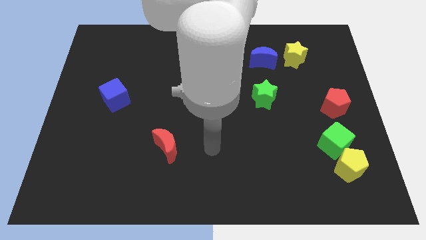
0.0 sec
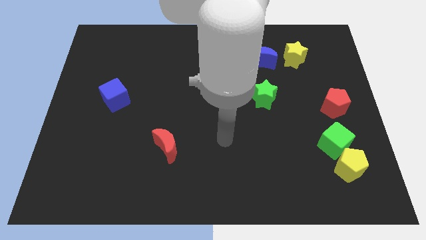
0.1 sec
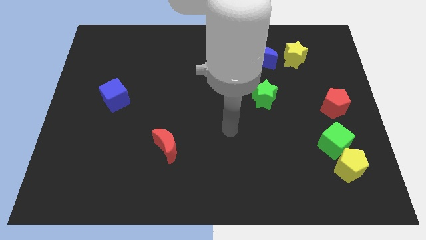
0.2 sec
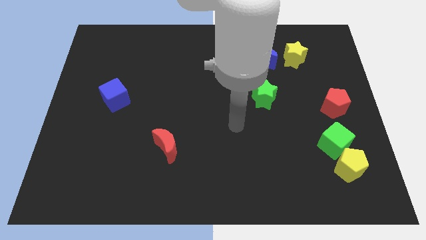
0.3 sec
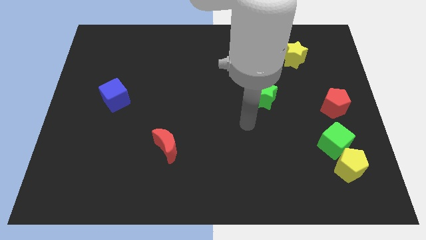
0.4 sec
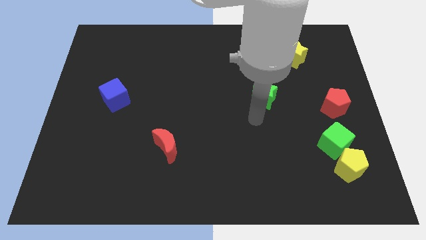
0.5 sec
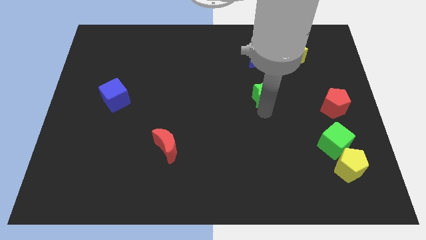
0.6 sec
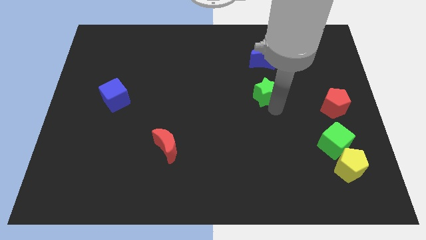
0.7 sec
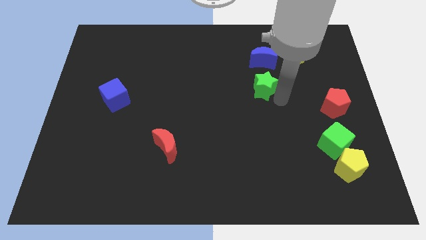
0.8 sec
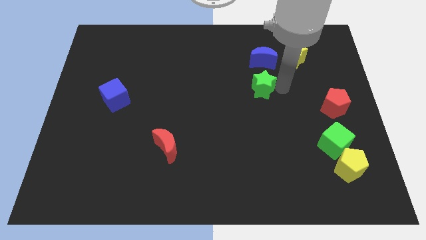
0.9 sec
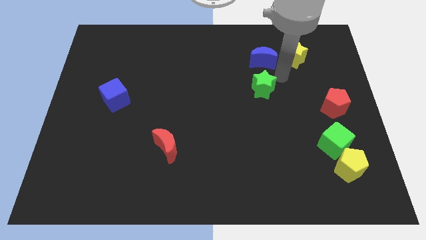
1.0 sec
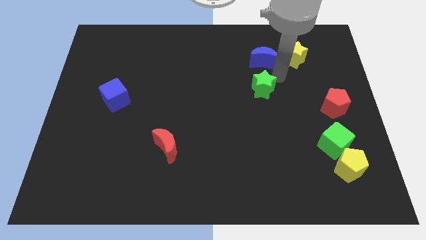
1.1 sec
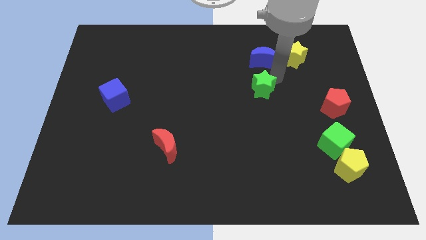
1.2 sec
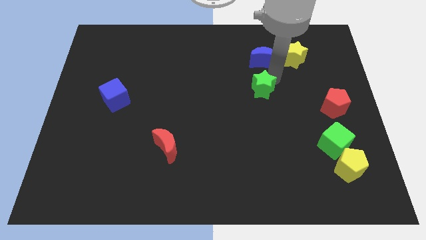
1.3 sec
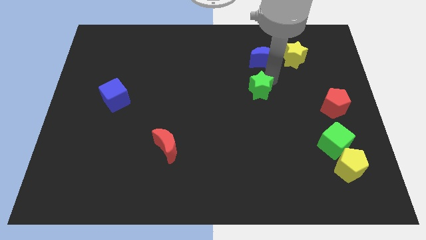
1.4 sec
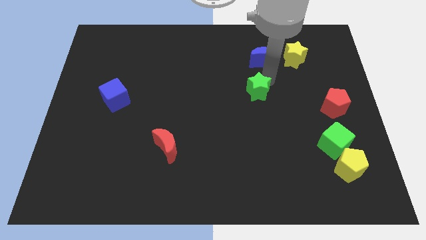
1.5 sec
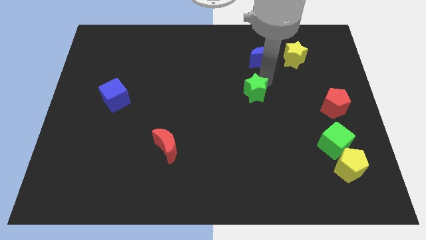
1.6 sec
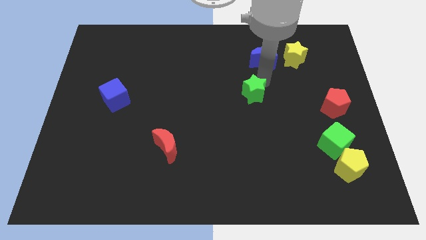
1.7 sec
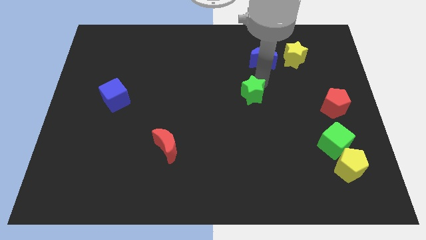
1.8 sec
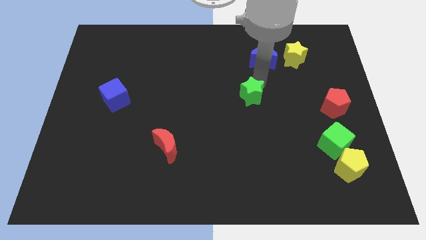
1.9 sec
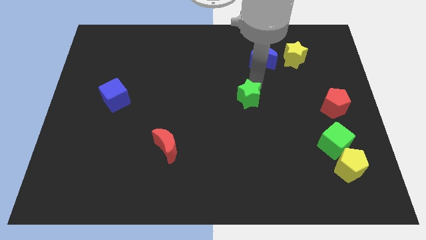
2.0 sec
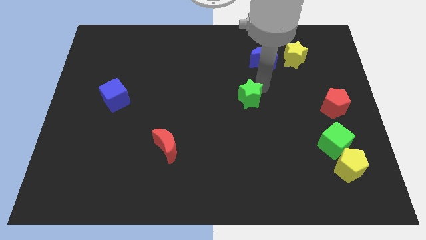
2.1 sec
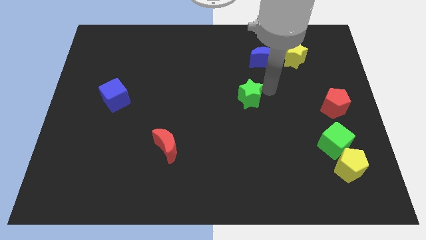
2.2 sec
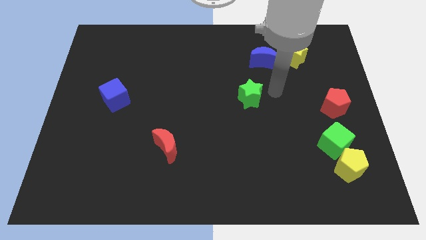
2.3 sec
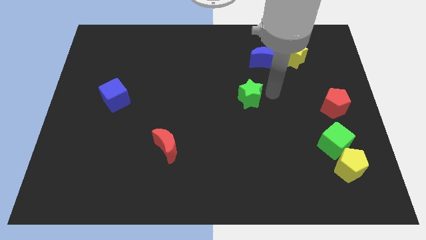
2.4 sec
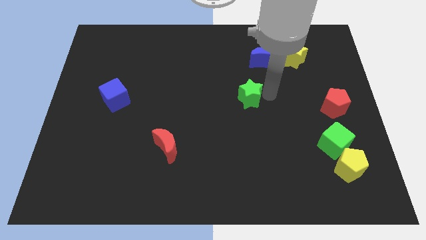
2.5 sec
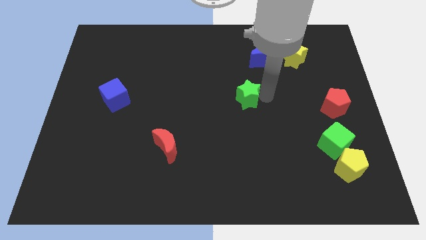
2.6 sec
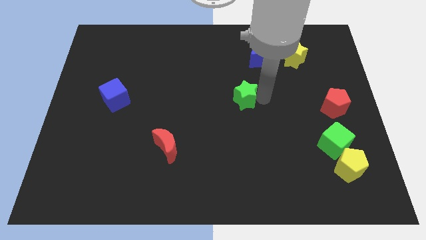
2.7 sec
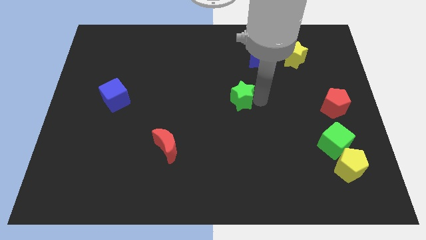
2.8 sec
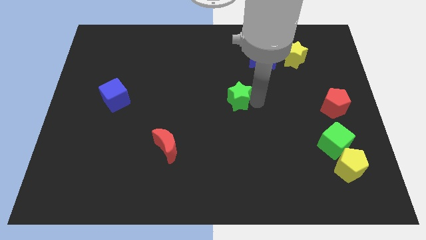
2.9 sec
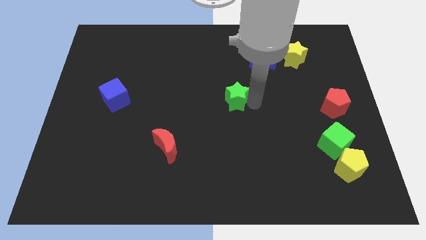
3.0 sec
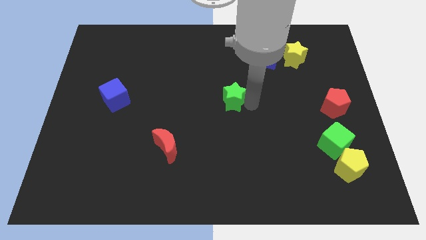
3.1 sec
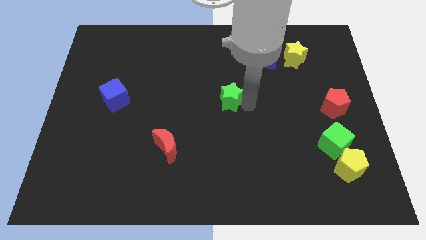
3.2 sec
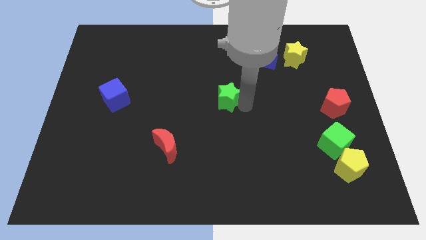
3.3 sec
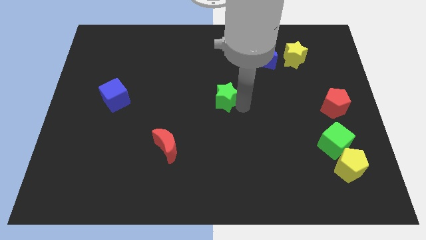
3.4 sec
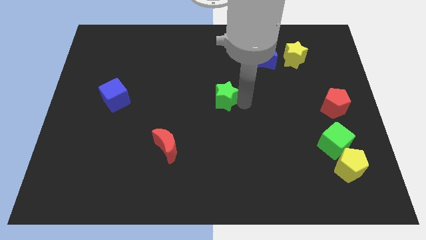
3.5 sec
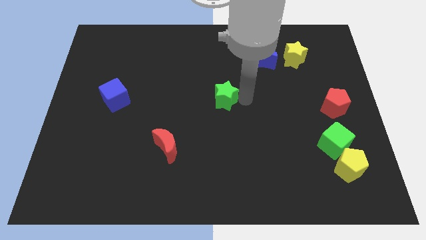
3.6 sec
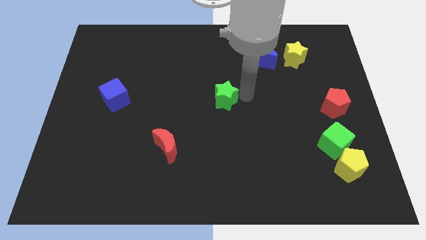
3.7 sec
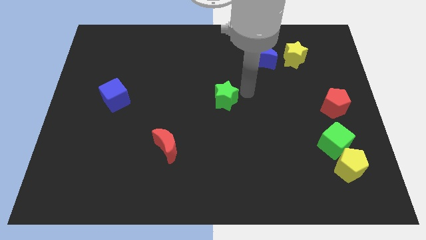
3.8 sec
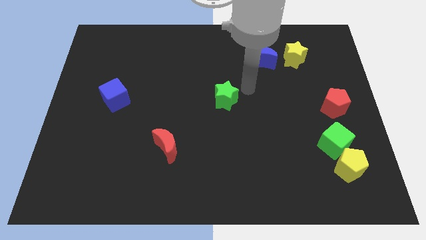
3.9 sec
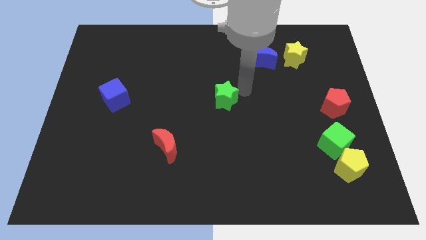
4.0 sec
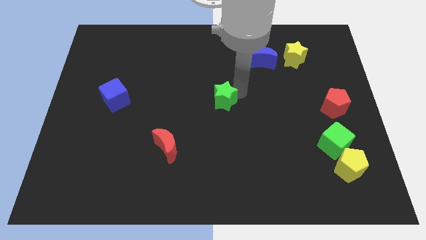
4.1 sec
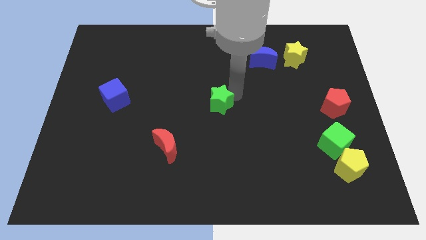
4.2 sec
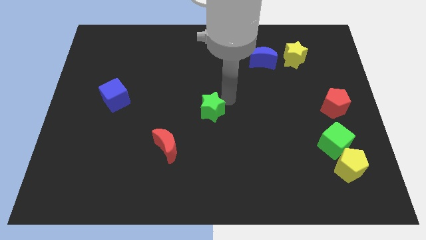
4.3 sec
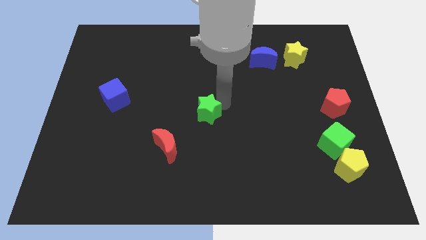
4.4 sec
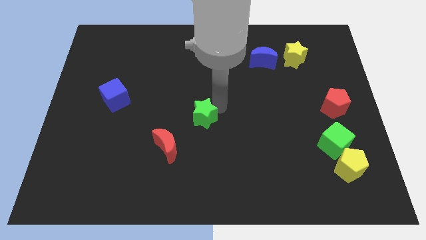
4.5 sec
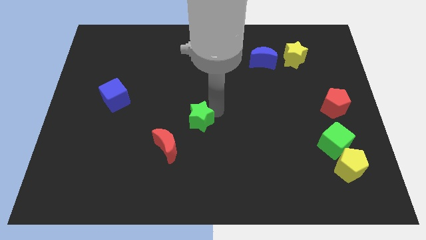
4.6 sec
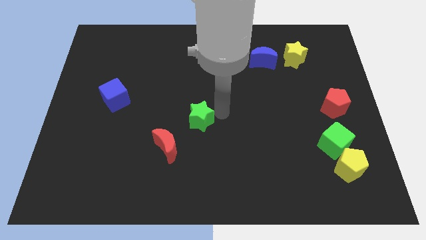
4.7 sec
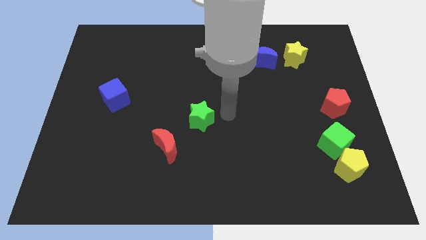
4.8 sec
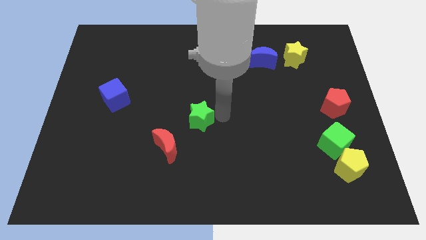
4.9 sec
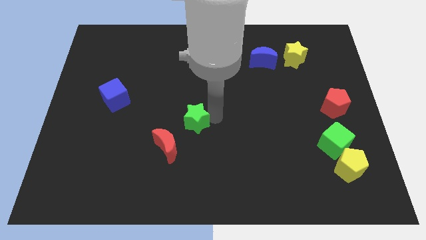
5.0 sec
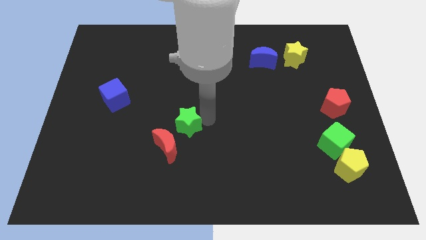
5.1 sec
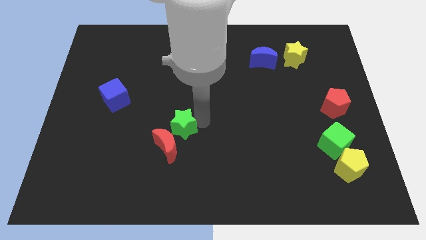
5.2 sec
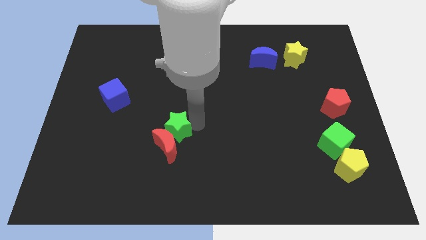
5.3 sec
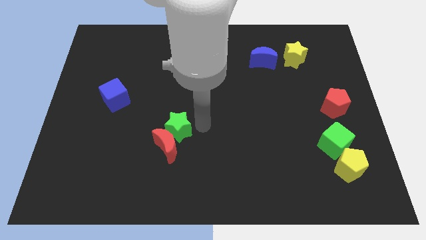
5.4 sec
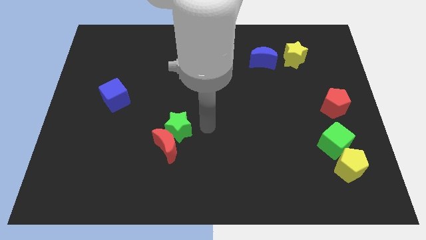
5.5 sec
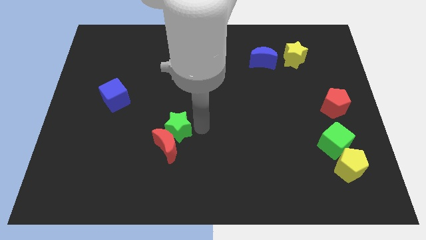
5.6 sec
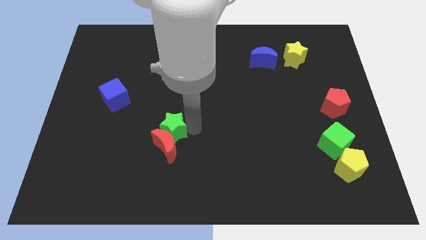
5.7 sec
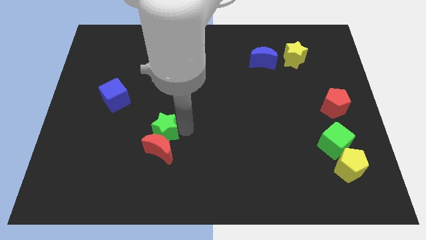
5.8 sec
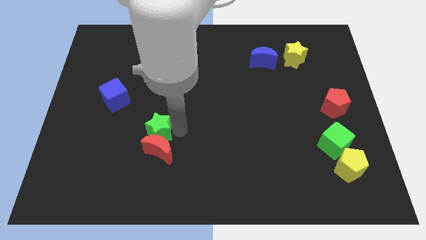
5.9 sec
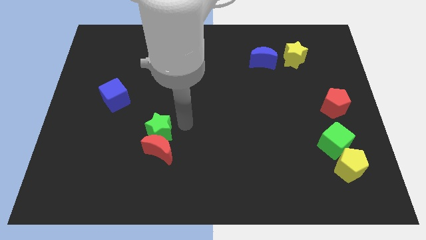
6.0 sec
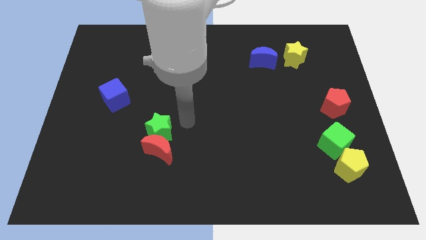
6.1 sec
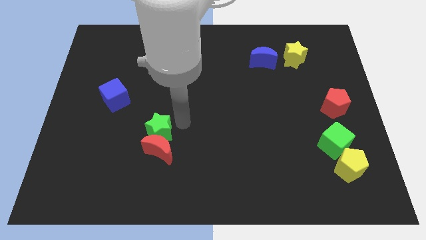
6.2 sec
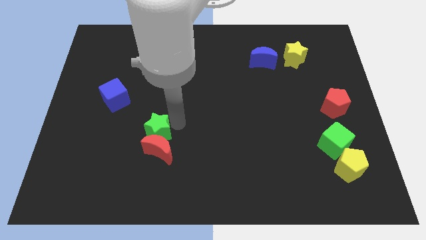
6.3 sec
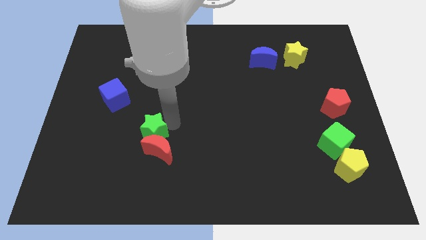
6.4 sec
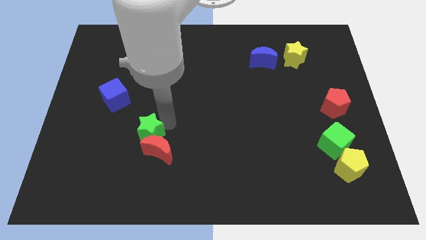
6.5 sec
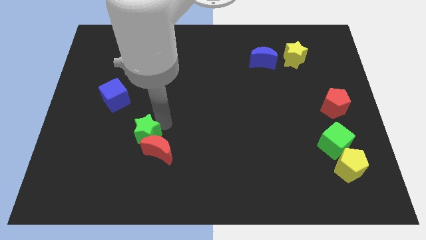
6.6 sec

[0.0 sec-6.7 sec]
move the green star to the left side of the red moon

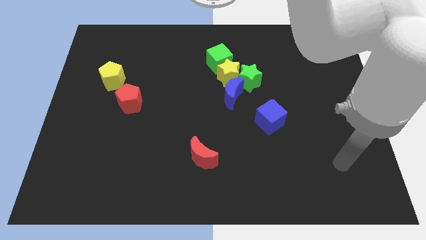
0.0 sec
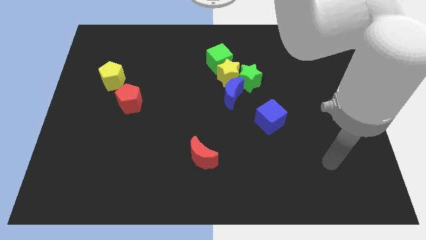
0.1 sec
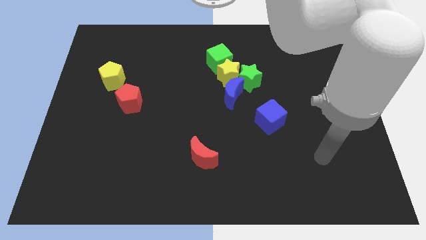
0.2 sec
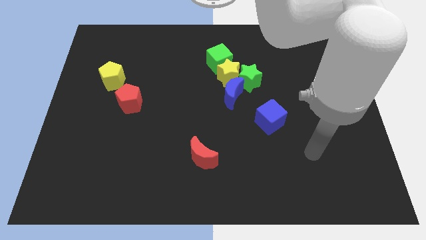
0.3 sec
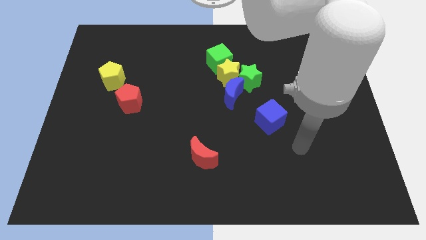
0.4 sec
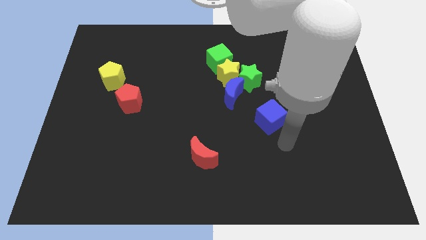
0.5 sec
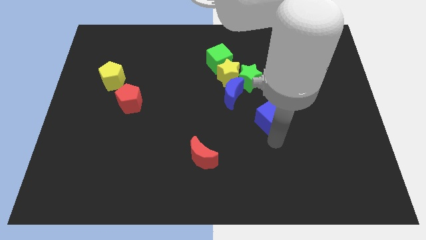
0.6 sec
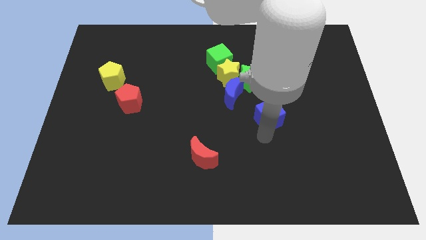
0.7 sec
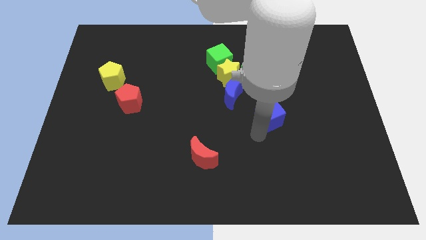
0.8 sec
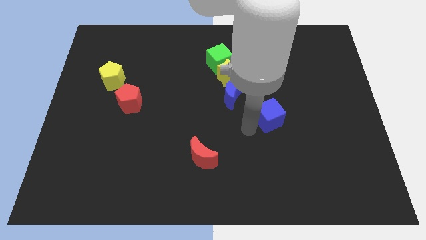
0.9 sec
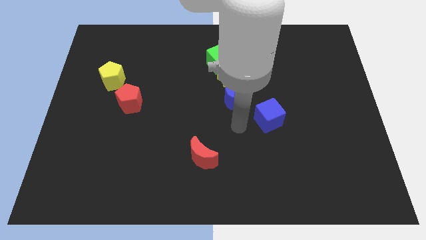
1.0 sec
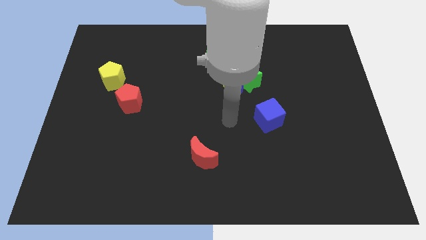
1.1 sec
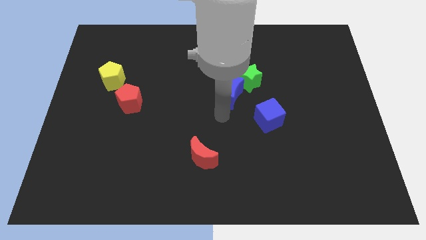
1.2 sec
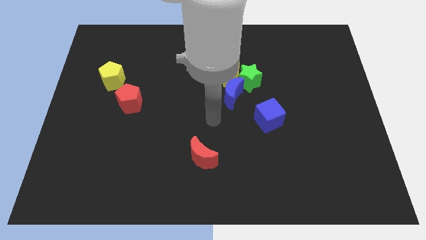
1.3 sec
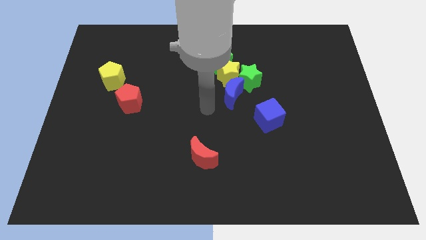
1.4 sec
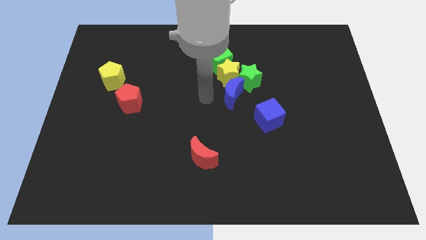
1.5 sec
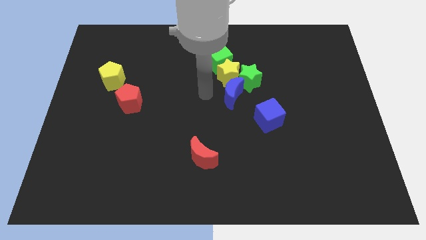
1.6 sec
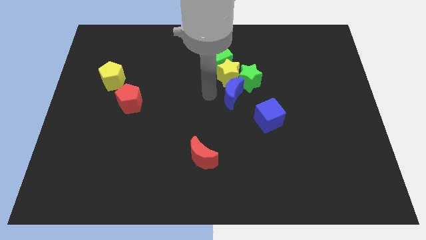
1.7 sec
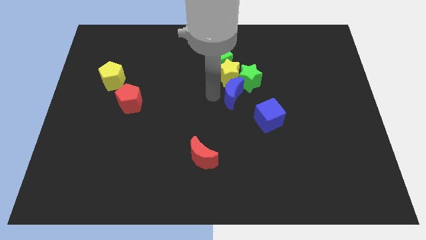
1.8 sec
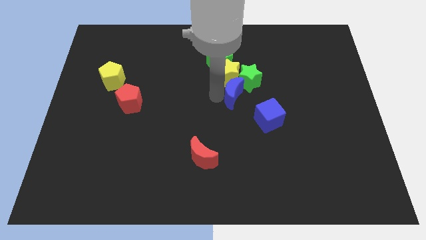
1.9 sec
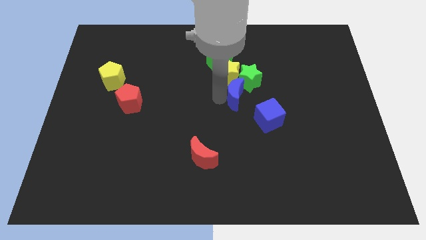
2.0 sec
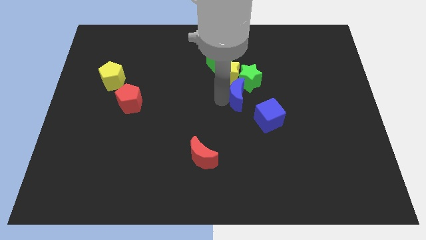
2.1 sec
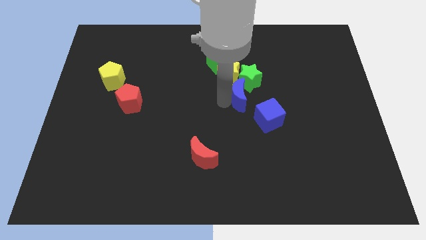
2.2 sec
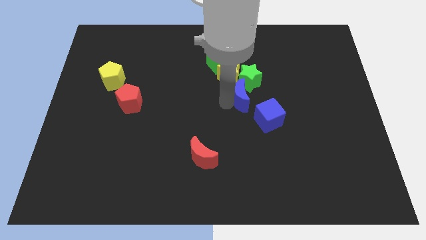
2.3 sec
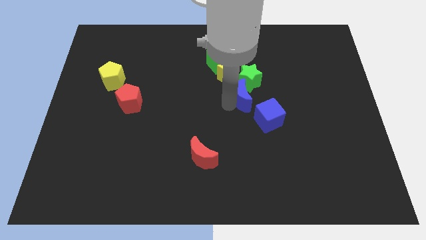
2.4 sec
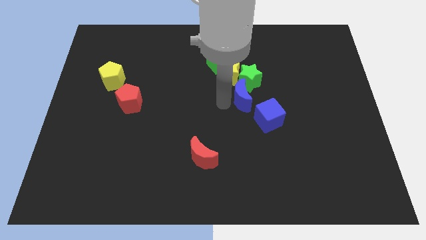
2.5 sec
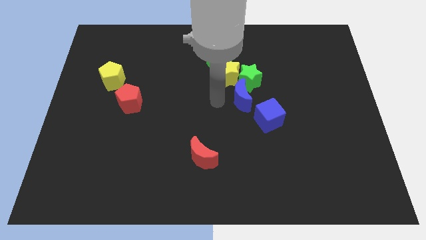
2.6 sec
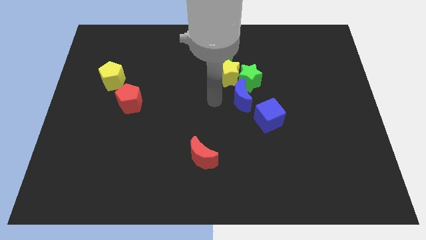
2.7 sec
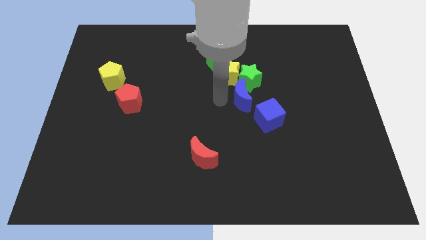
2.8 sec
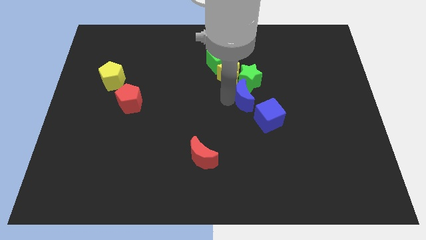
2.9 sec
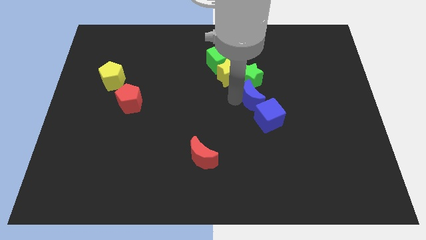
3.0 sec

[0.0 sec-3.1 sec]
put the blue moon diagonally down and to the right of the green star
